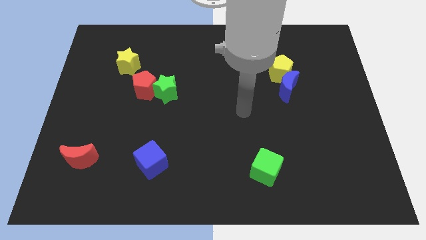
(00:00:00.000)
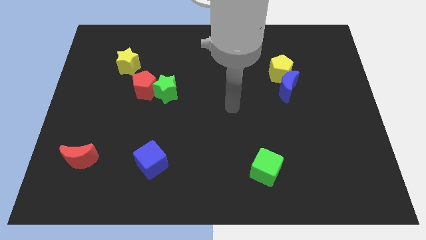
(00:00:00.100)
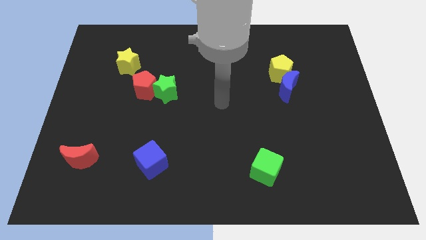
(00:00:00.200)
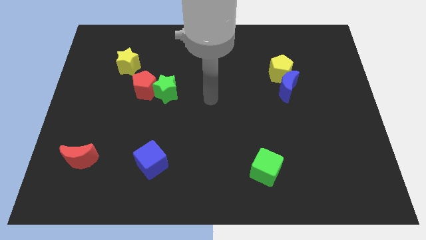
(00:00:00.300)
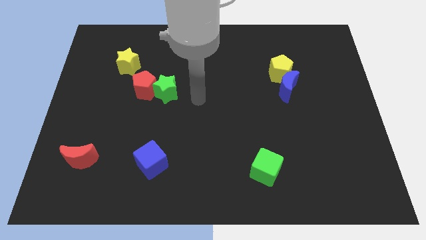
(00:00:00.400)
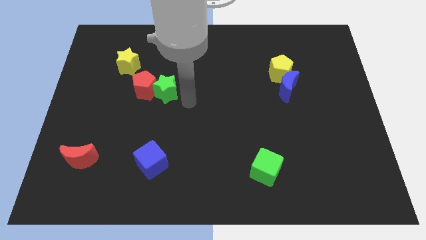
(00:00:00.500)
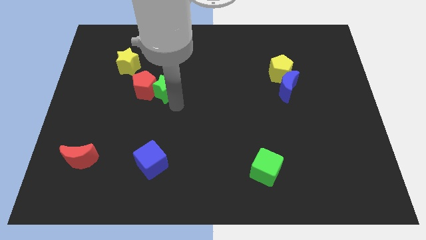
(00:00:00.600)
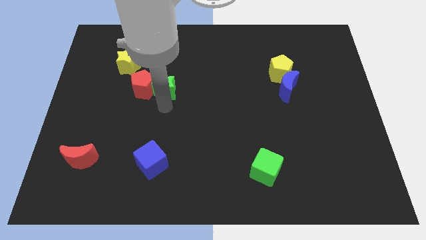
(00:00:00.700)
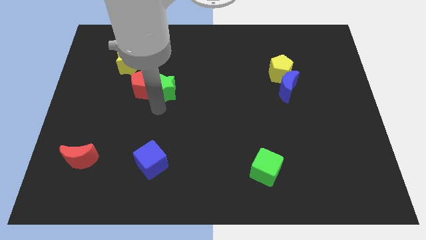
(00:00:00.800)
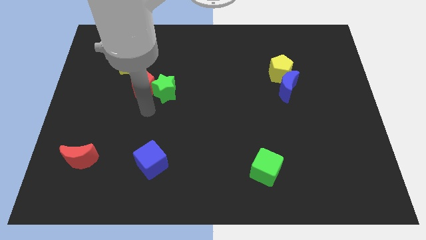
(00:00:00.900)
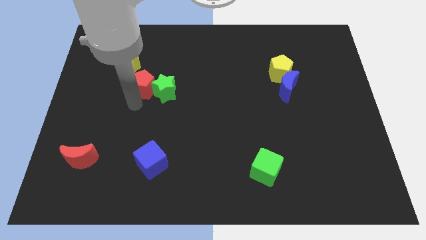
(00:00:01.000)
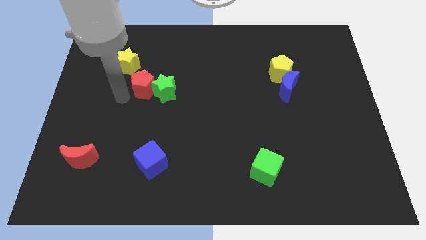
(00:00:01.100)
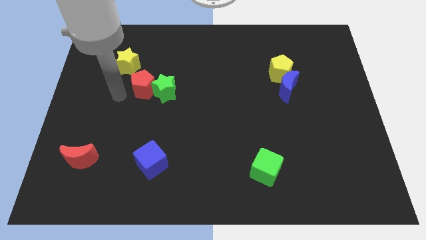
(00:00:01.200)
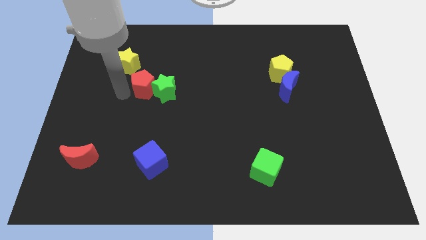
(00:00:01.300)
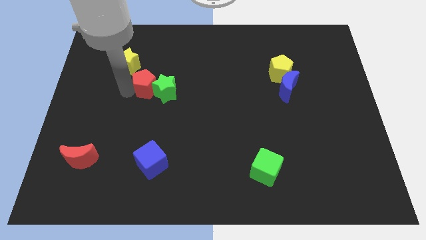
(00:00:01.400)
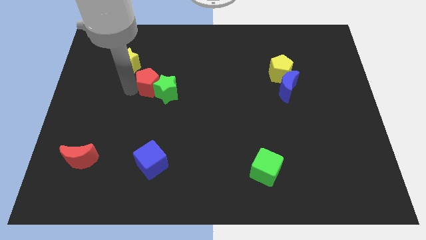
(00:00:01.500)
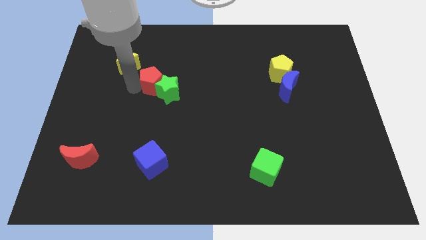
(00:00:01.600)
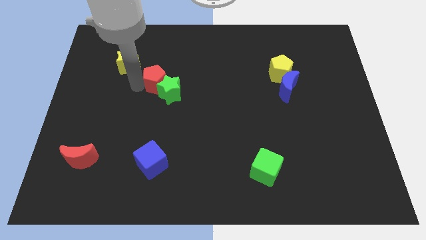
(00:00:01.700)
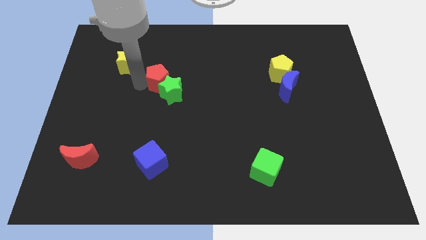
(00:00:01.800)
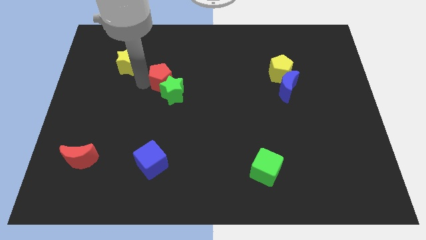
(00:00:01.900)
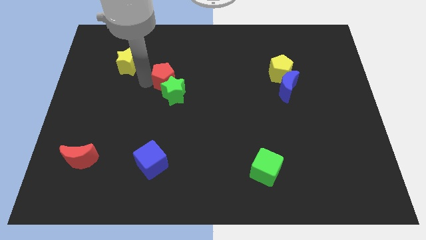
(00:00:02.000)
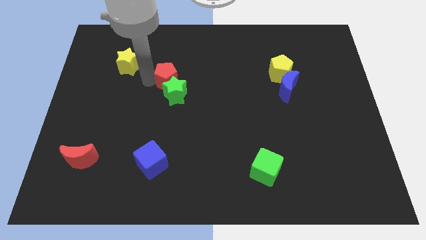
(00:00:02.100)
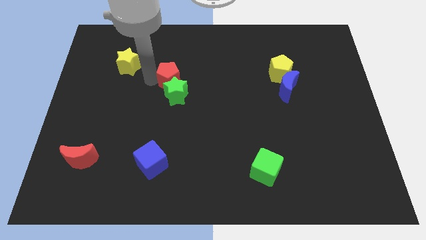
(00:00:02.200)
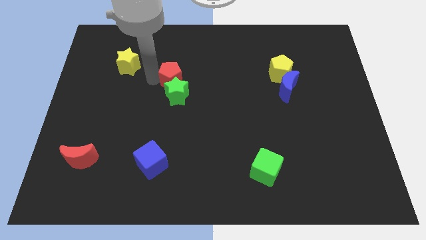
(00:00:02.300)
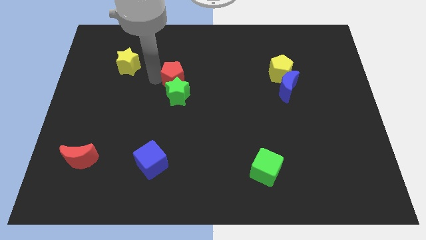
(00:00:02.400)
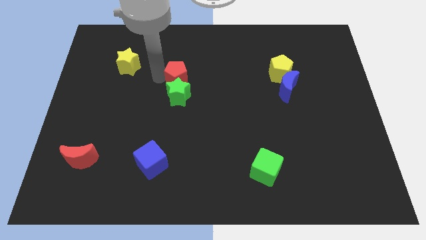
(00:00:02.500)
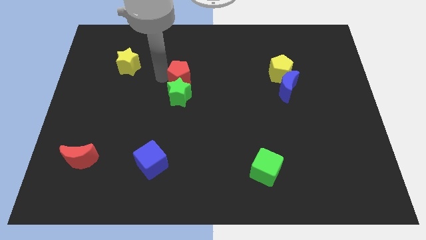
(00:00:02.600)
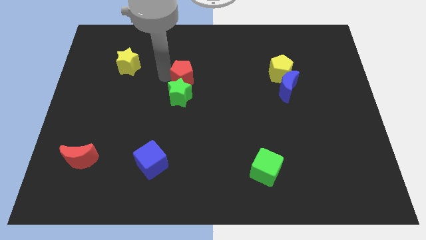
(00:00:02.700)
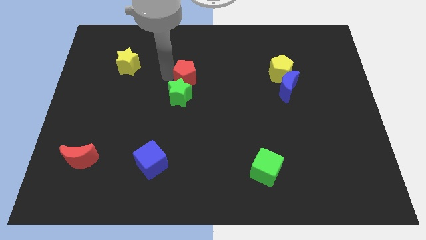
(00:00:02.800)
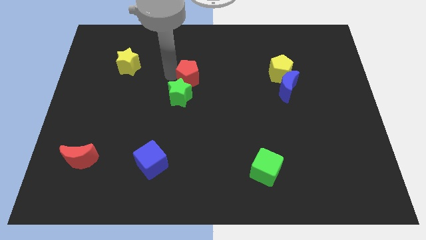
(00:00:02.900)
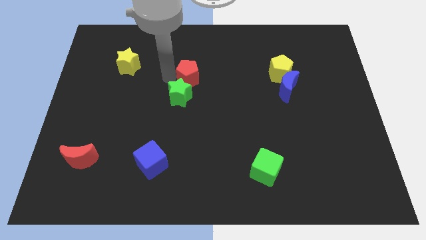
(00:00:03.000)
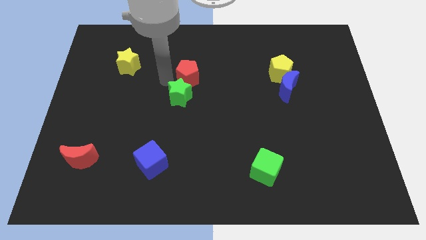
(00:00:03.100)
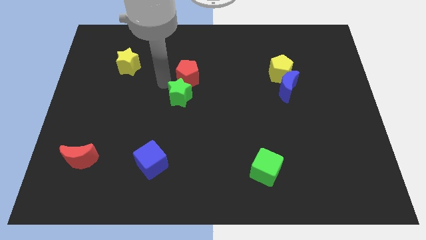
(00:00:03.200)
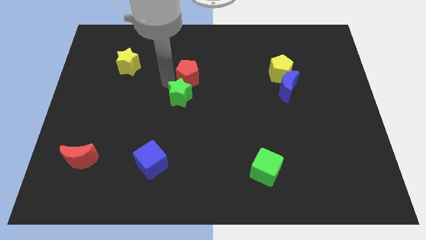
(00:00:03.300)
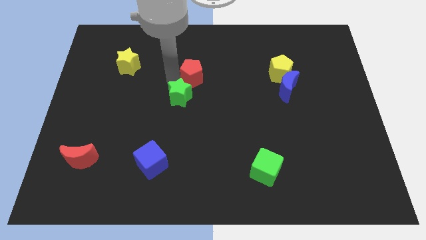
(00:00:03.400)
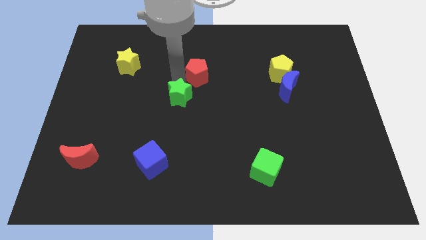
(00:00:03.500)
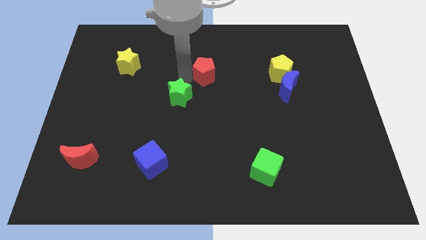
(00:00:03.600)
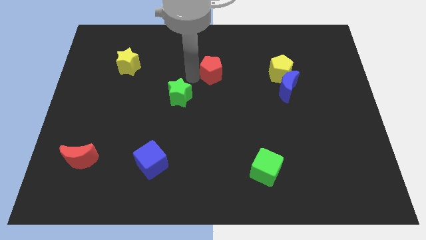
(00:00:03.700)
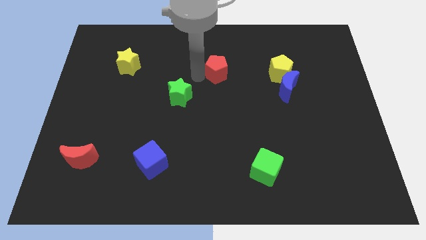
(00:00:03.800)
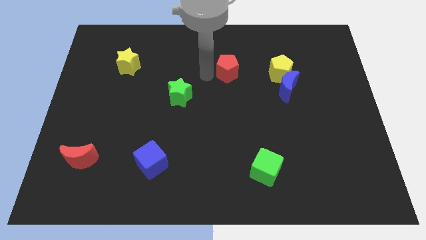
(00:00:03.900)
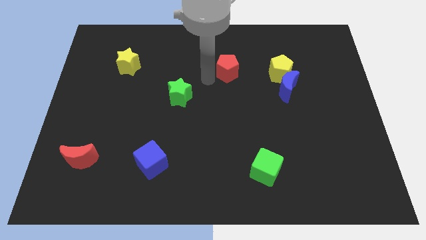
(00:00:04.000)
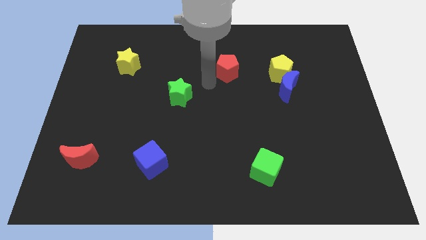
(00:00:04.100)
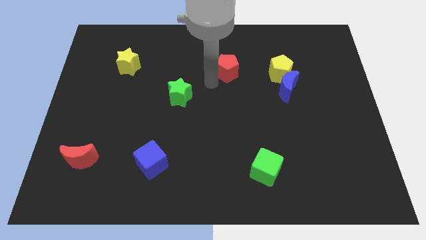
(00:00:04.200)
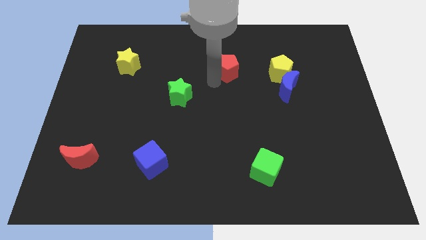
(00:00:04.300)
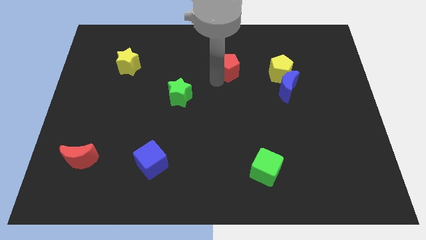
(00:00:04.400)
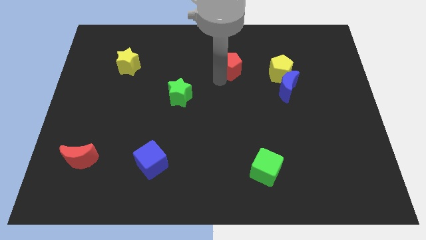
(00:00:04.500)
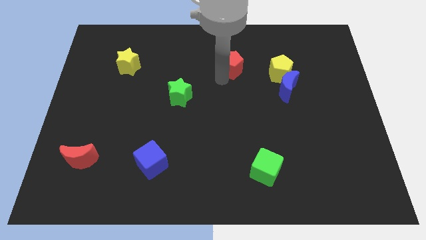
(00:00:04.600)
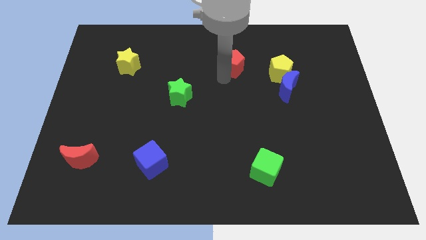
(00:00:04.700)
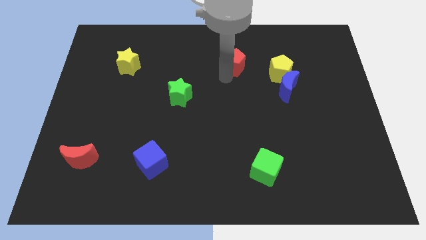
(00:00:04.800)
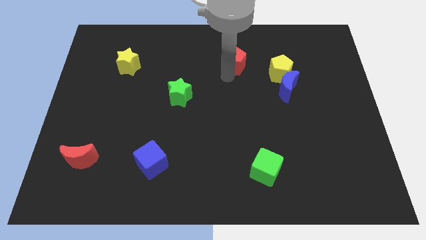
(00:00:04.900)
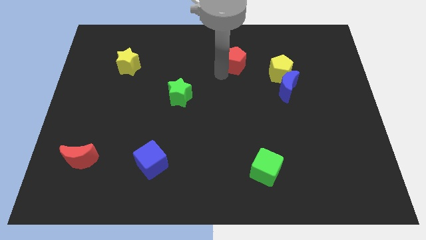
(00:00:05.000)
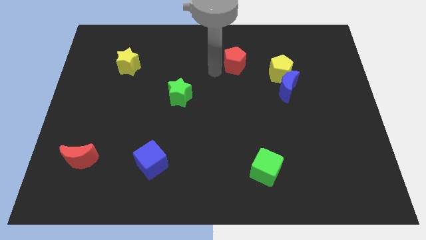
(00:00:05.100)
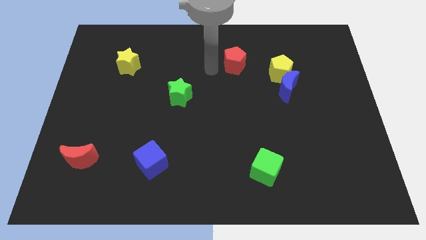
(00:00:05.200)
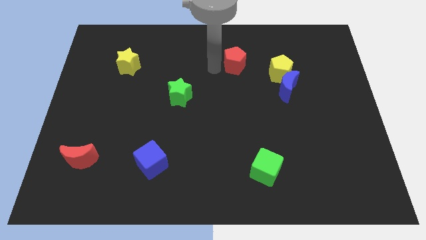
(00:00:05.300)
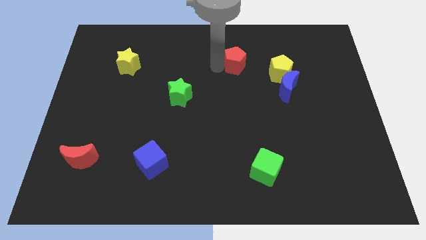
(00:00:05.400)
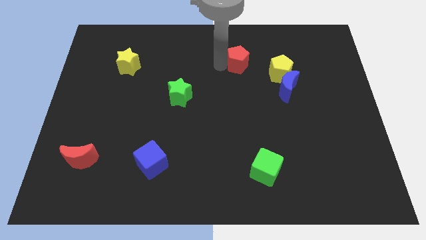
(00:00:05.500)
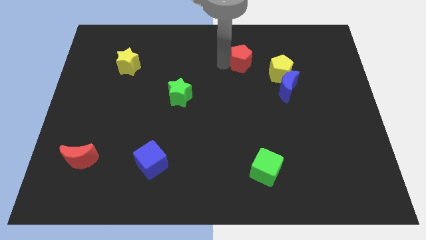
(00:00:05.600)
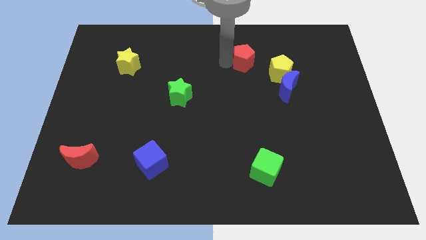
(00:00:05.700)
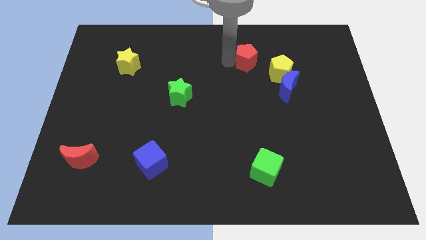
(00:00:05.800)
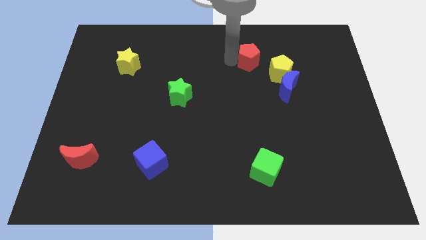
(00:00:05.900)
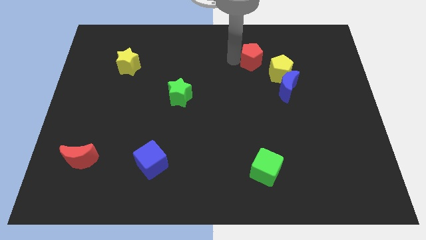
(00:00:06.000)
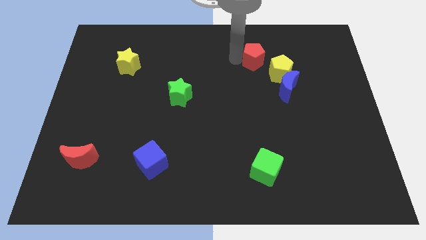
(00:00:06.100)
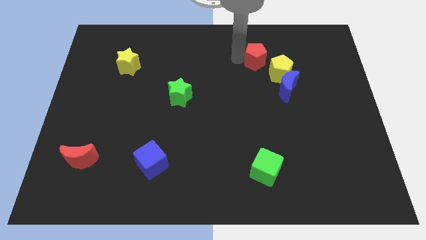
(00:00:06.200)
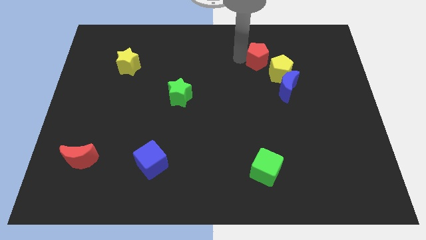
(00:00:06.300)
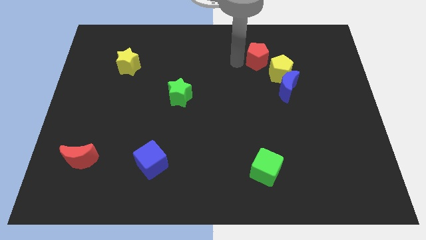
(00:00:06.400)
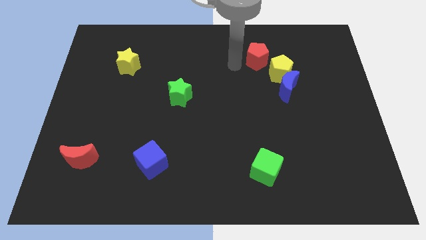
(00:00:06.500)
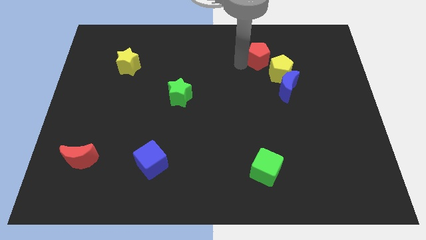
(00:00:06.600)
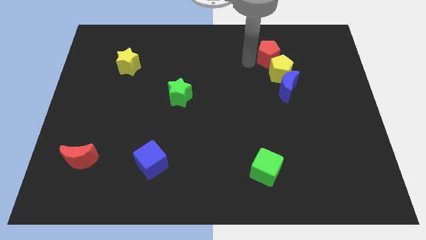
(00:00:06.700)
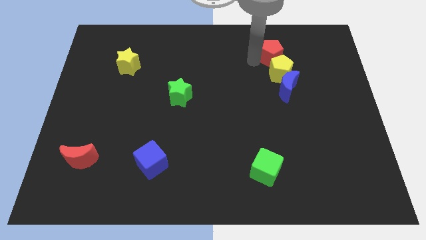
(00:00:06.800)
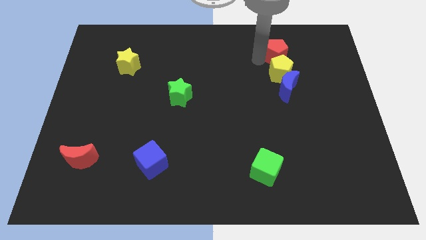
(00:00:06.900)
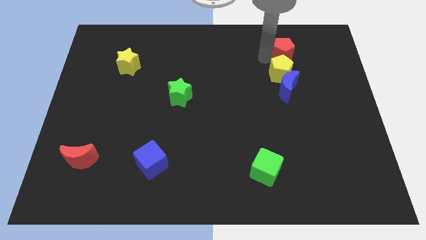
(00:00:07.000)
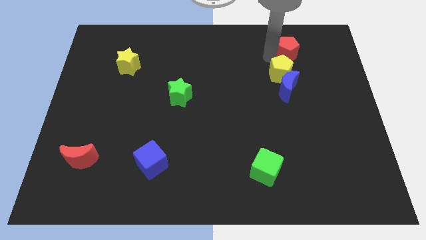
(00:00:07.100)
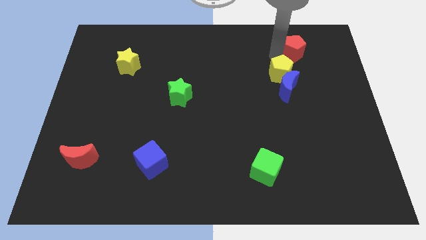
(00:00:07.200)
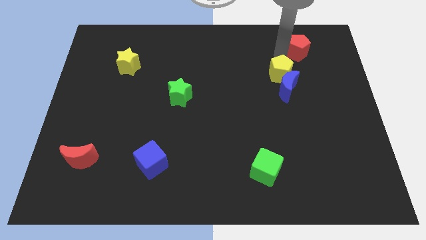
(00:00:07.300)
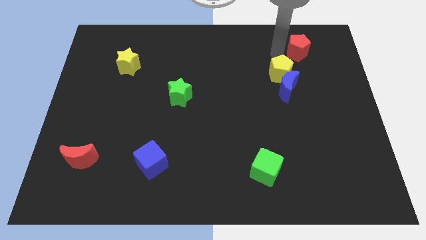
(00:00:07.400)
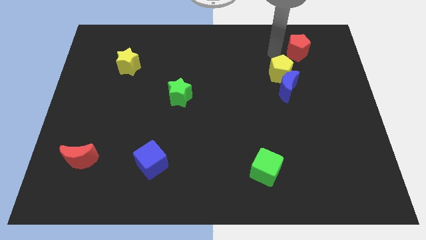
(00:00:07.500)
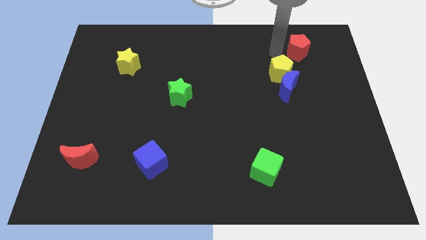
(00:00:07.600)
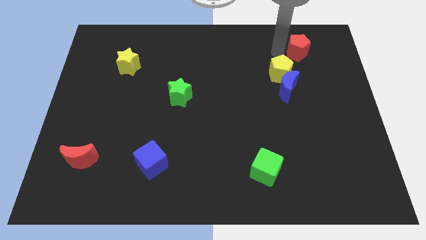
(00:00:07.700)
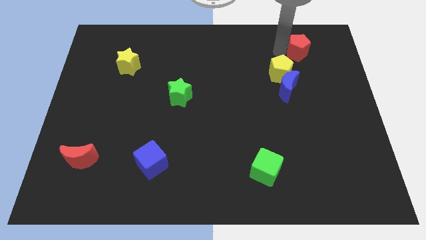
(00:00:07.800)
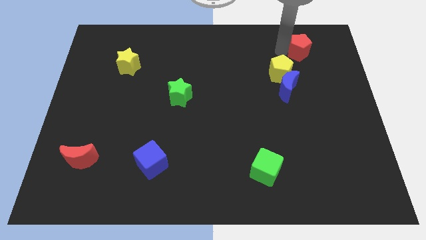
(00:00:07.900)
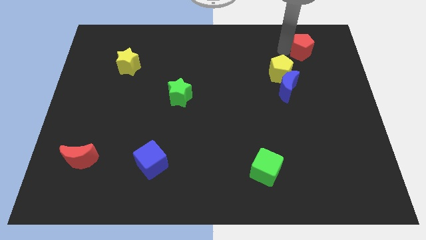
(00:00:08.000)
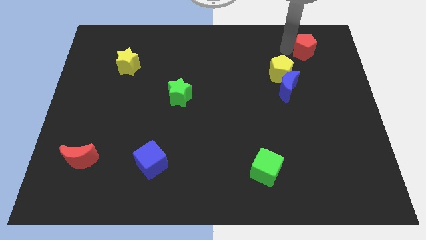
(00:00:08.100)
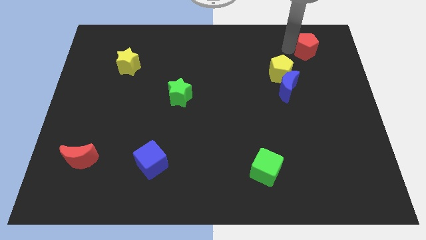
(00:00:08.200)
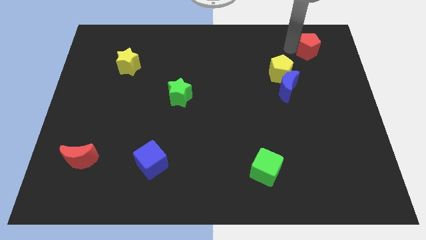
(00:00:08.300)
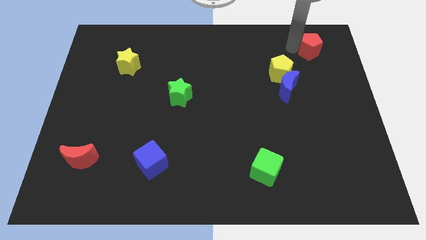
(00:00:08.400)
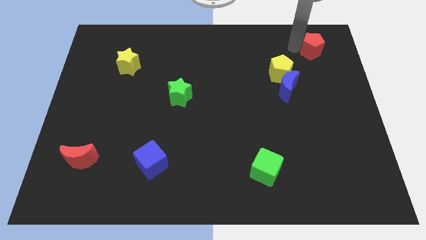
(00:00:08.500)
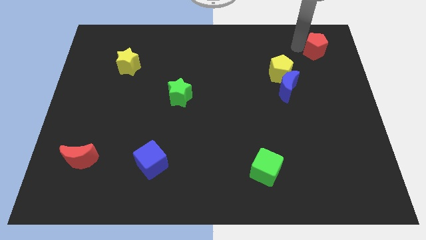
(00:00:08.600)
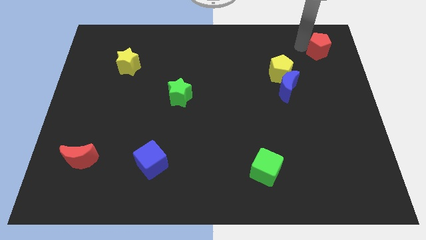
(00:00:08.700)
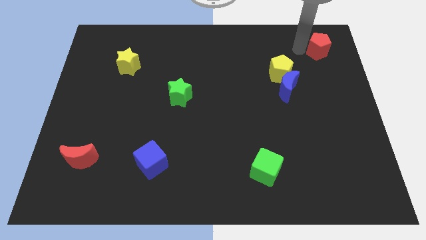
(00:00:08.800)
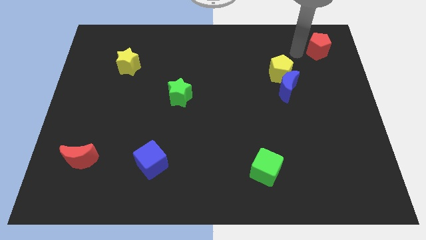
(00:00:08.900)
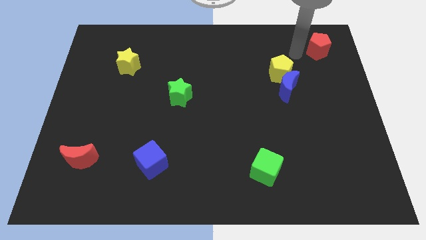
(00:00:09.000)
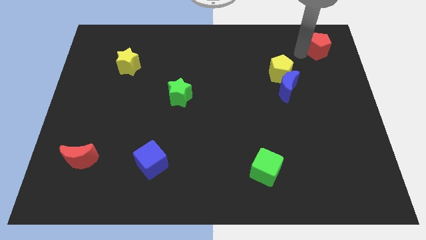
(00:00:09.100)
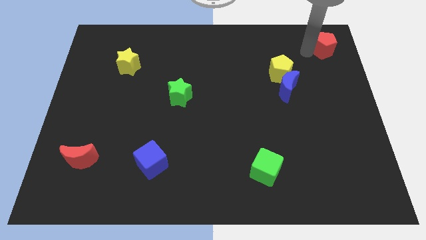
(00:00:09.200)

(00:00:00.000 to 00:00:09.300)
slide the red pentagon to the top right
